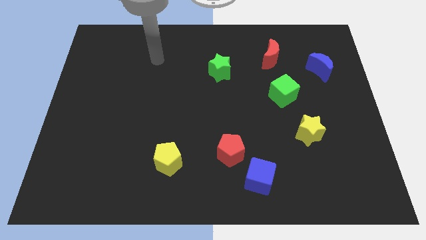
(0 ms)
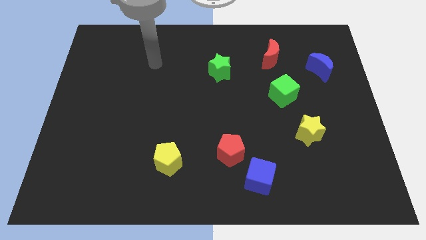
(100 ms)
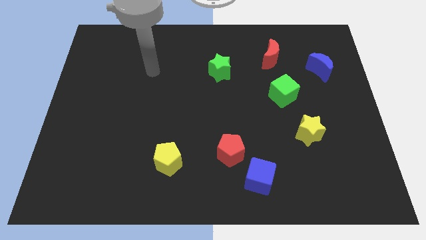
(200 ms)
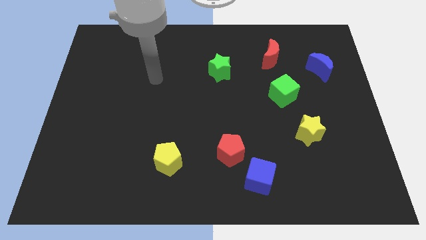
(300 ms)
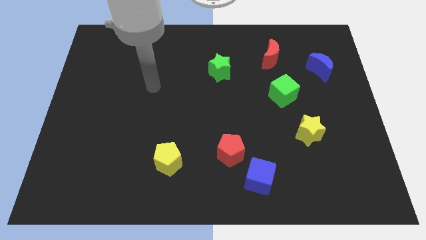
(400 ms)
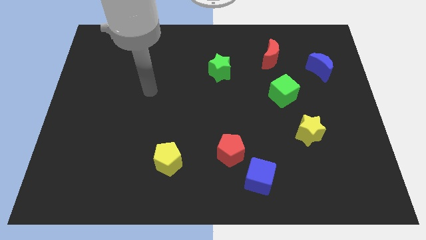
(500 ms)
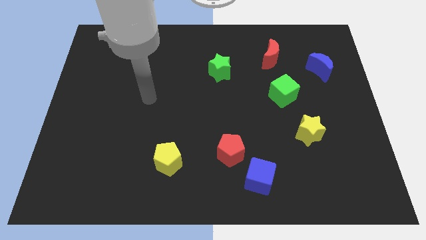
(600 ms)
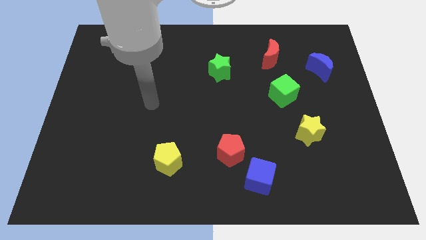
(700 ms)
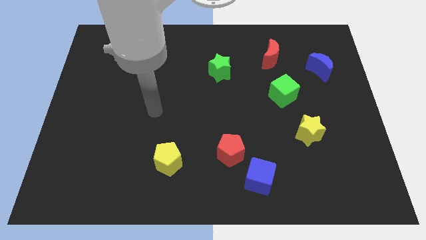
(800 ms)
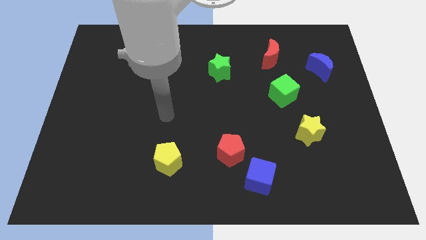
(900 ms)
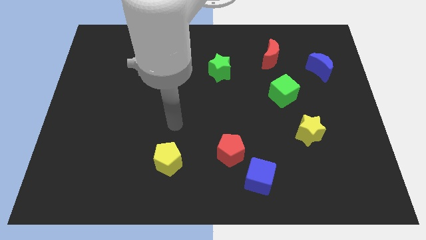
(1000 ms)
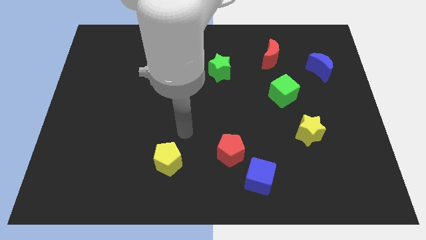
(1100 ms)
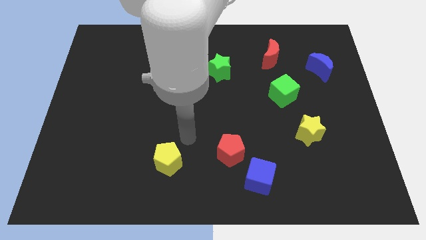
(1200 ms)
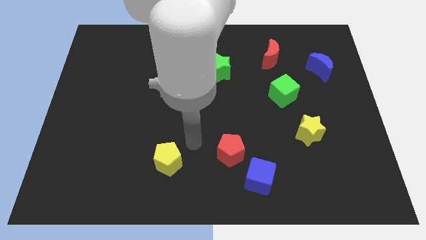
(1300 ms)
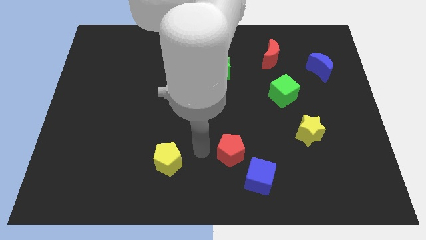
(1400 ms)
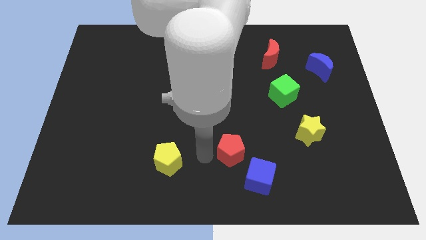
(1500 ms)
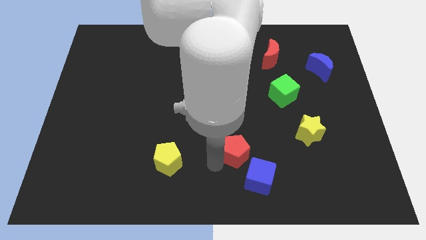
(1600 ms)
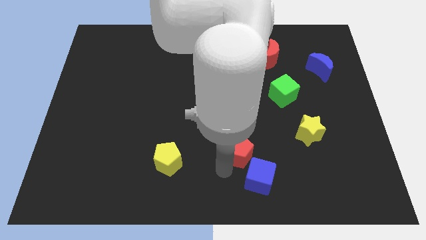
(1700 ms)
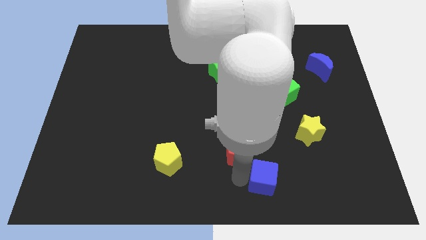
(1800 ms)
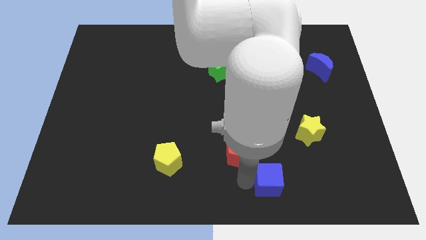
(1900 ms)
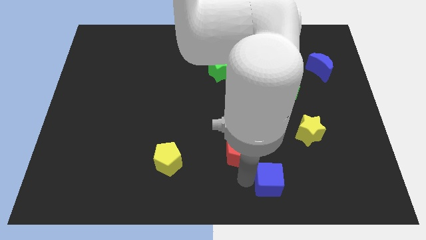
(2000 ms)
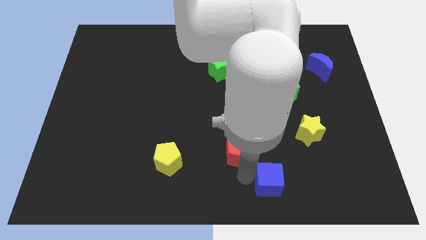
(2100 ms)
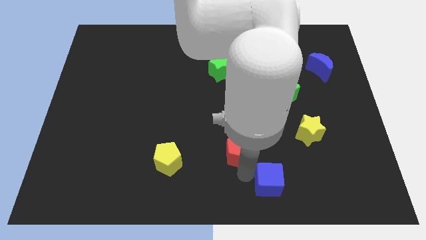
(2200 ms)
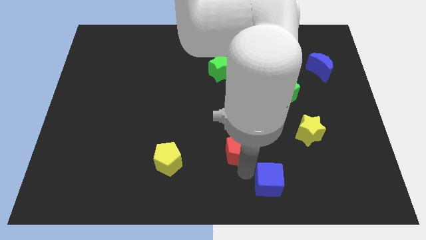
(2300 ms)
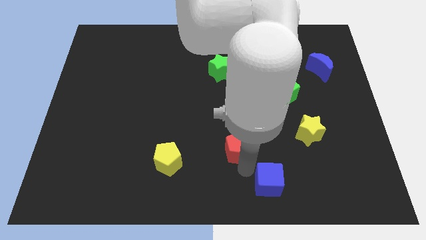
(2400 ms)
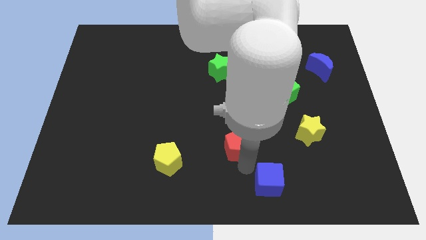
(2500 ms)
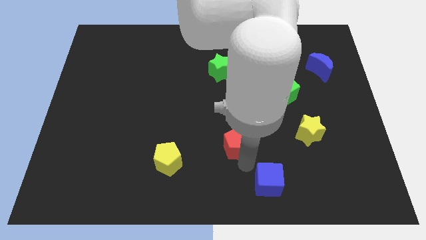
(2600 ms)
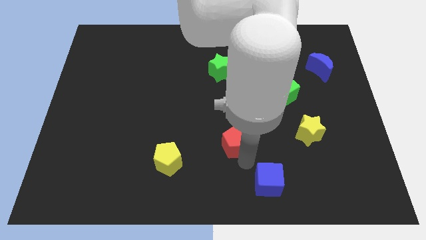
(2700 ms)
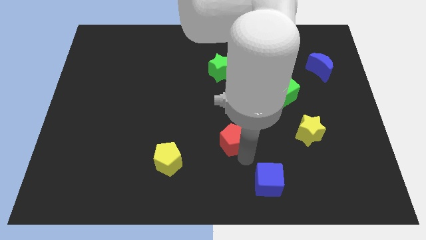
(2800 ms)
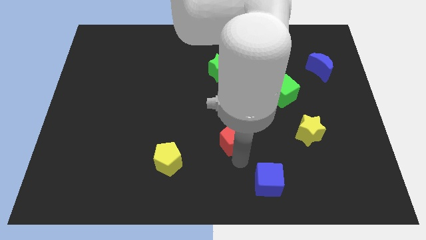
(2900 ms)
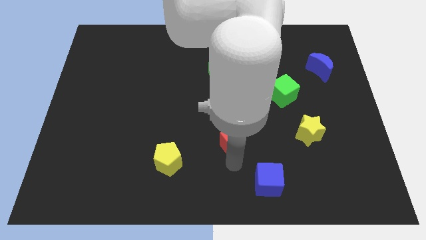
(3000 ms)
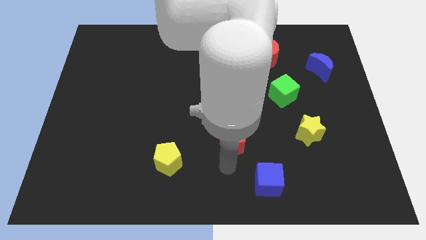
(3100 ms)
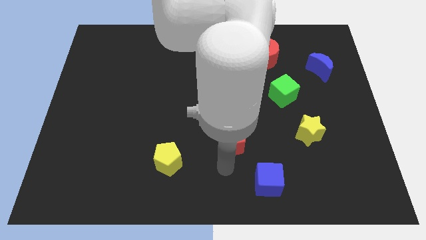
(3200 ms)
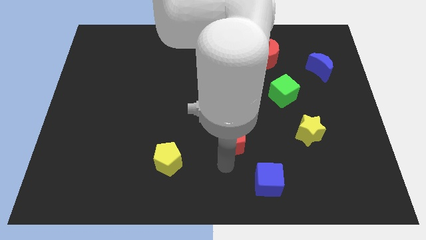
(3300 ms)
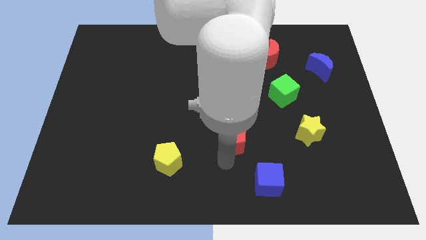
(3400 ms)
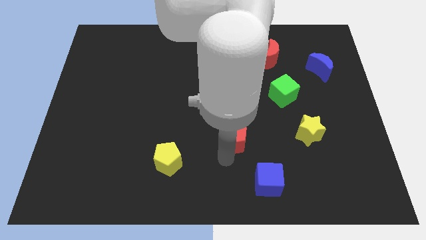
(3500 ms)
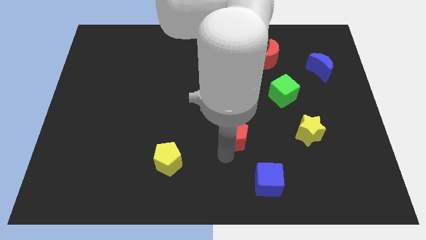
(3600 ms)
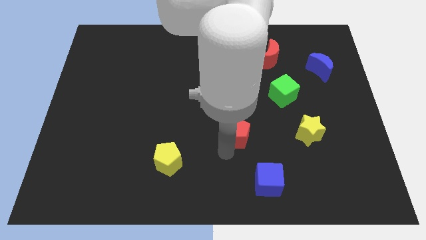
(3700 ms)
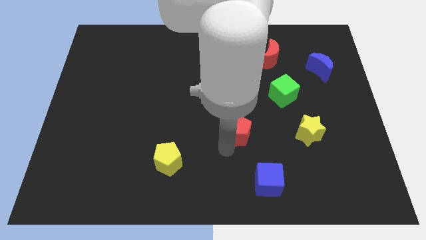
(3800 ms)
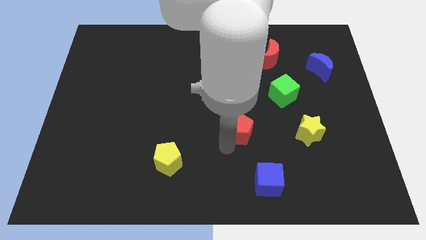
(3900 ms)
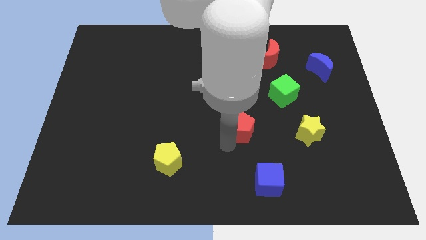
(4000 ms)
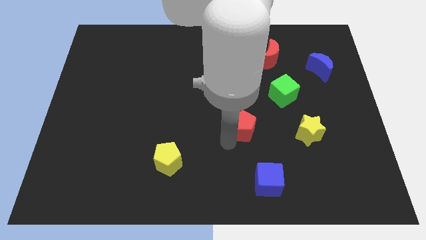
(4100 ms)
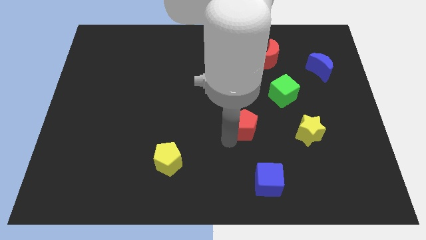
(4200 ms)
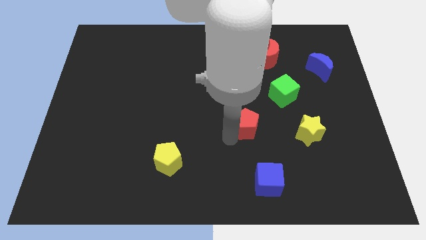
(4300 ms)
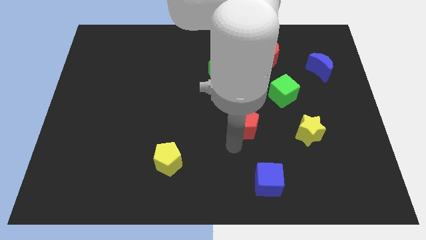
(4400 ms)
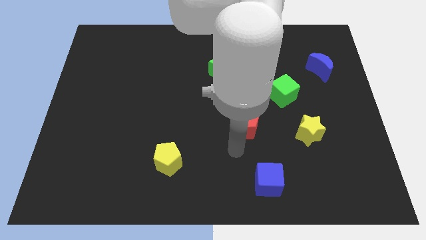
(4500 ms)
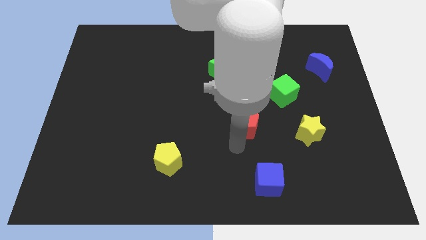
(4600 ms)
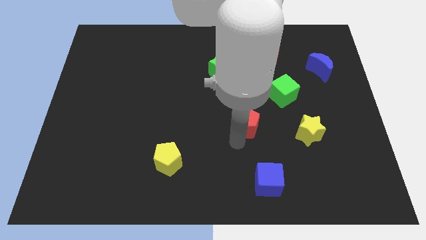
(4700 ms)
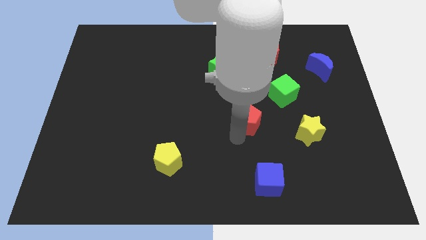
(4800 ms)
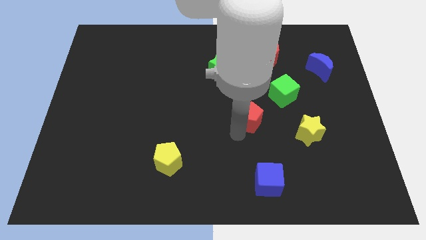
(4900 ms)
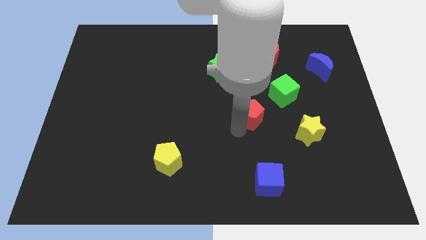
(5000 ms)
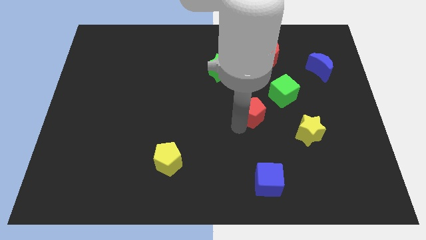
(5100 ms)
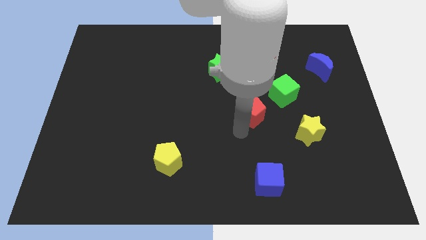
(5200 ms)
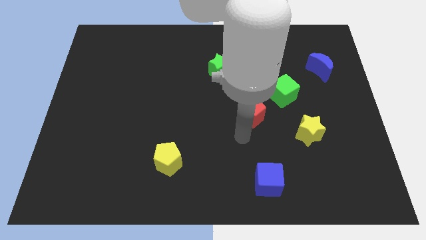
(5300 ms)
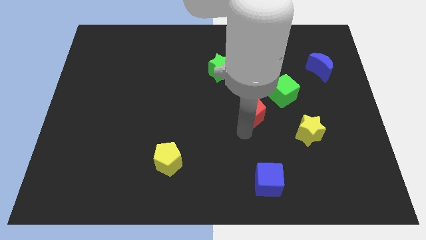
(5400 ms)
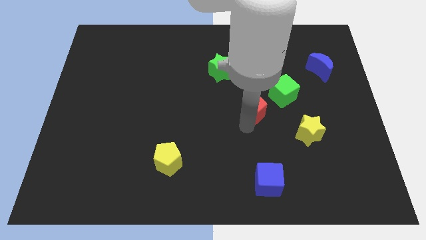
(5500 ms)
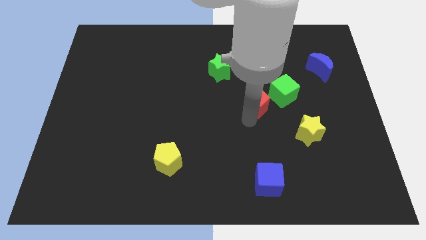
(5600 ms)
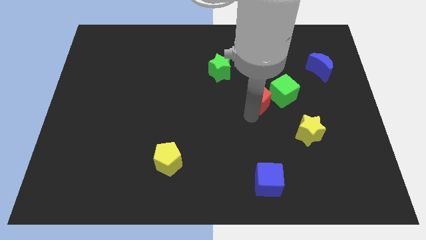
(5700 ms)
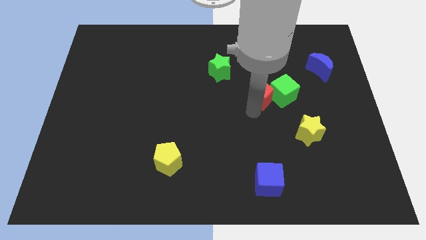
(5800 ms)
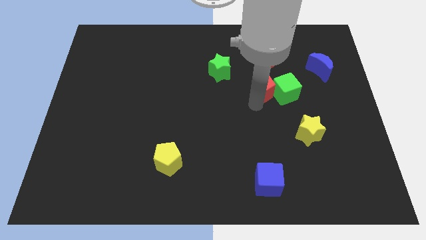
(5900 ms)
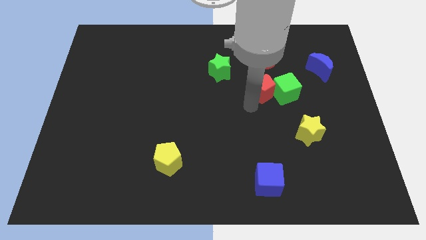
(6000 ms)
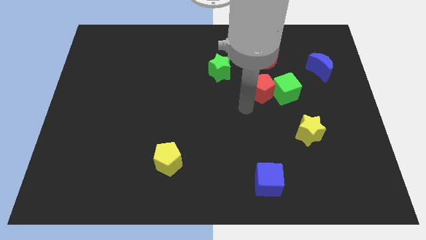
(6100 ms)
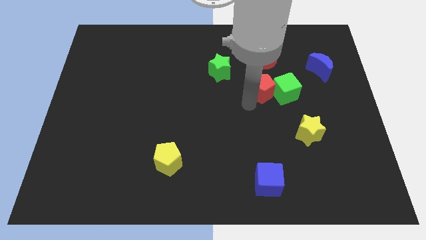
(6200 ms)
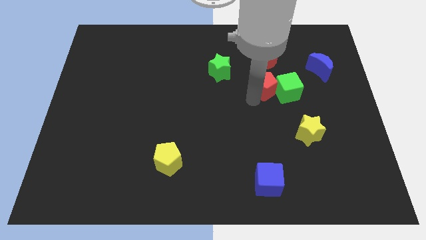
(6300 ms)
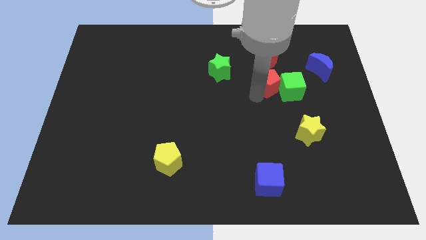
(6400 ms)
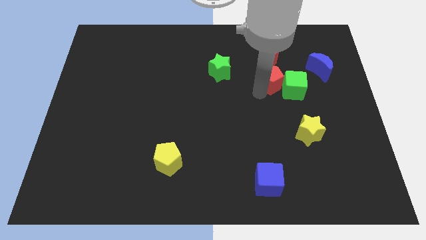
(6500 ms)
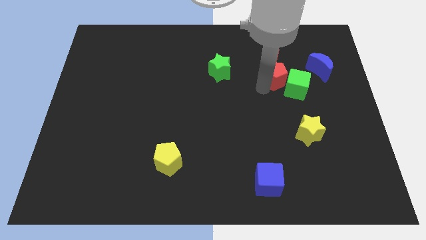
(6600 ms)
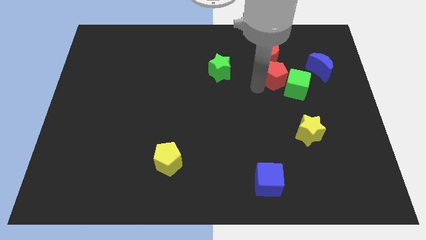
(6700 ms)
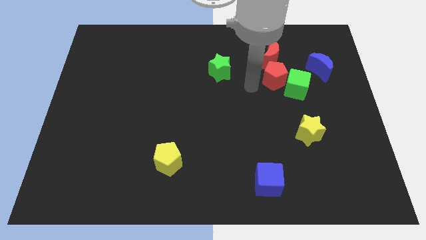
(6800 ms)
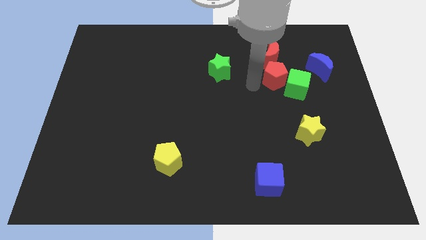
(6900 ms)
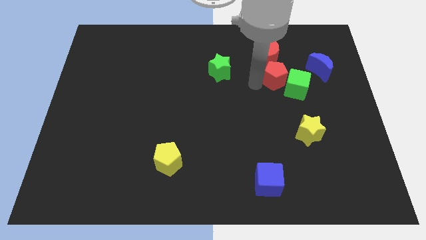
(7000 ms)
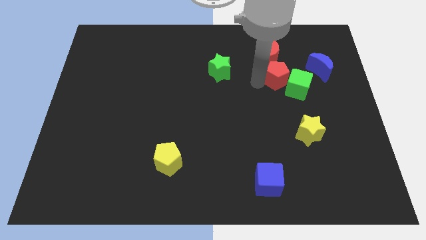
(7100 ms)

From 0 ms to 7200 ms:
move the red pentagon to the bottom right side of the red moon

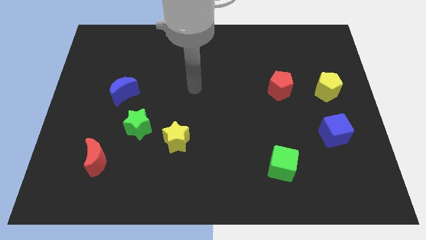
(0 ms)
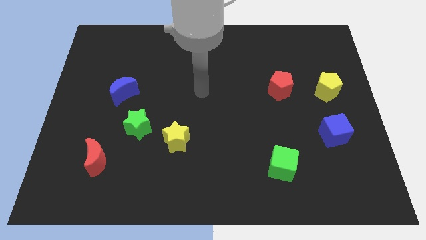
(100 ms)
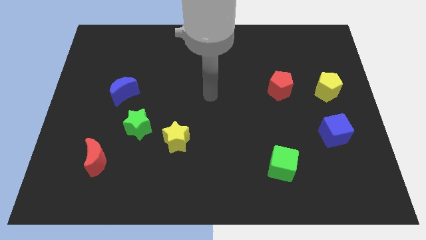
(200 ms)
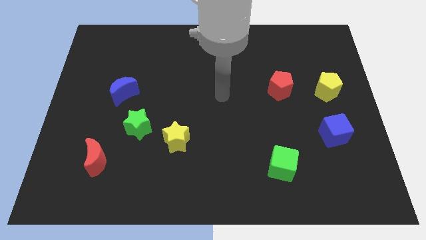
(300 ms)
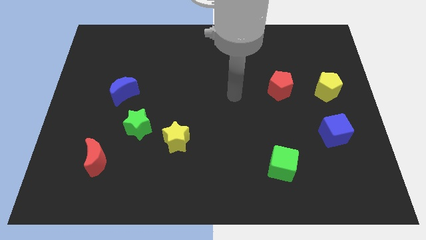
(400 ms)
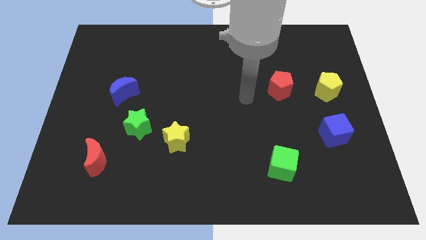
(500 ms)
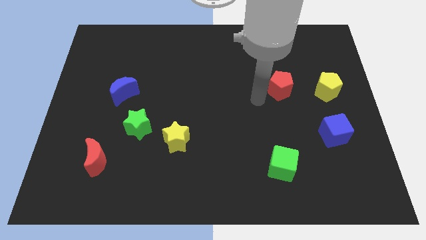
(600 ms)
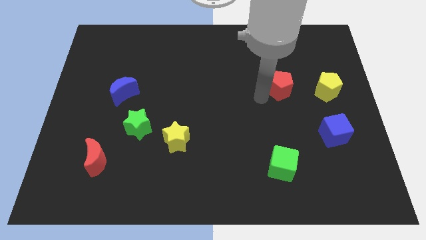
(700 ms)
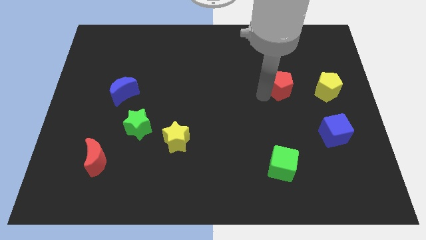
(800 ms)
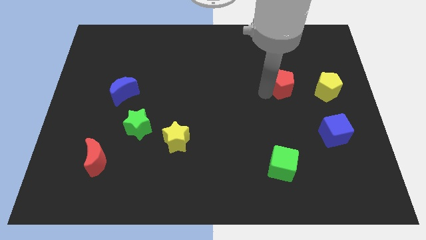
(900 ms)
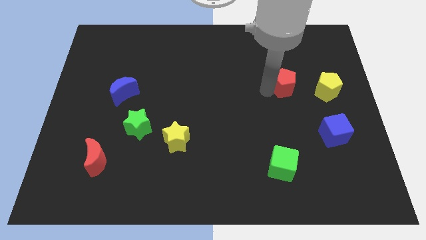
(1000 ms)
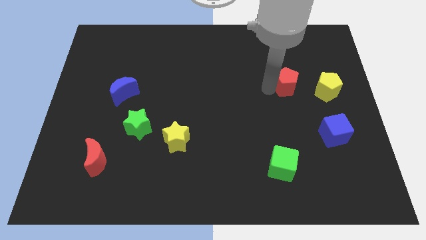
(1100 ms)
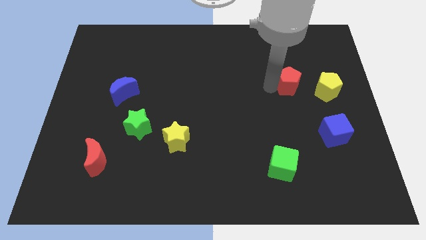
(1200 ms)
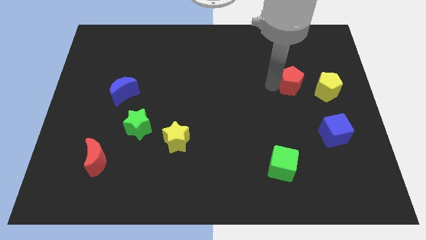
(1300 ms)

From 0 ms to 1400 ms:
put the red pentagon to the top left side of the yellow pentagon
